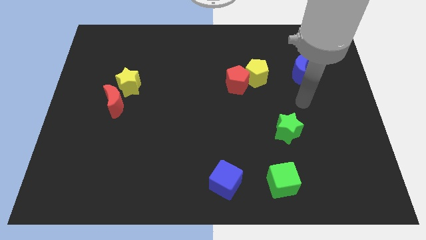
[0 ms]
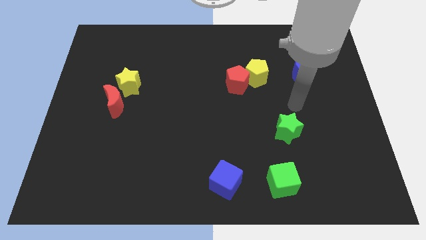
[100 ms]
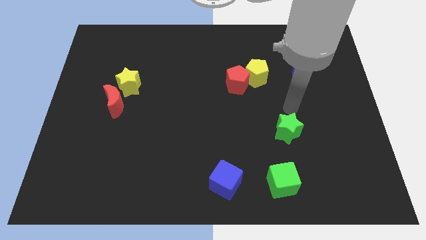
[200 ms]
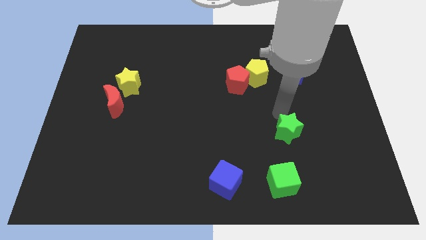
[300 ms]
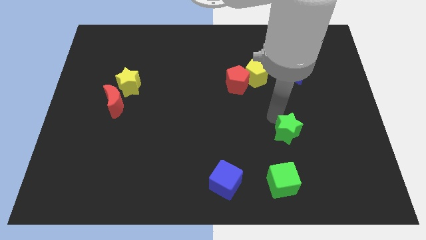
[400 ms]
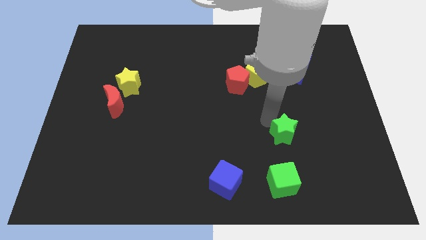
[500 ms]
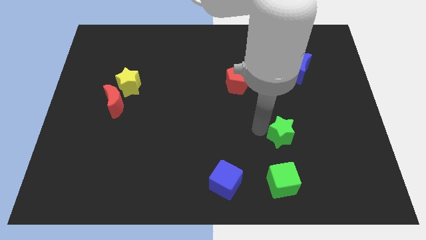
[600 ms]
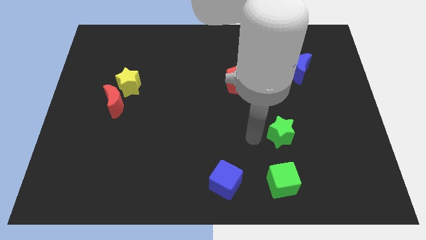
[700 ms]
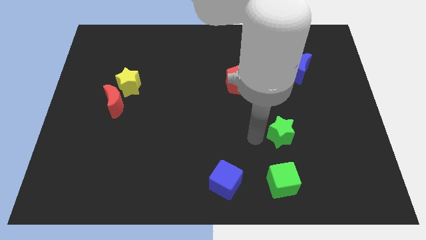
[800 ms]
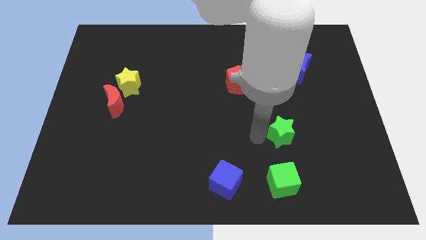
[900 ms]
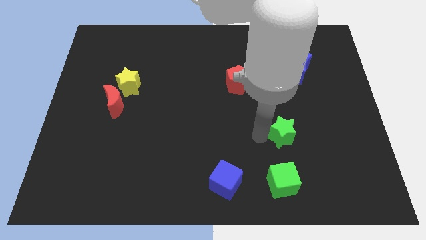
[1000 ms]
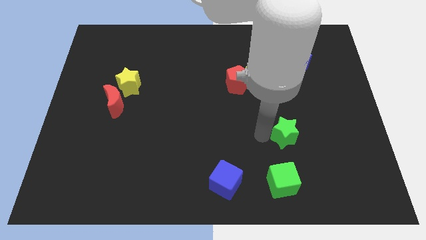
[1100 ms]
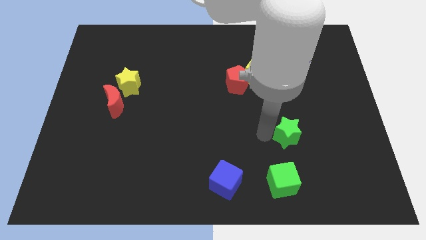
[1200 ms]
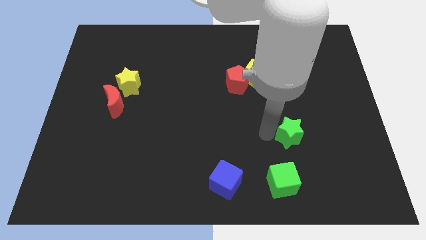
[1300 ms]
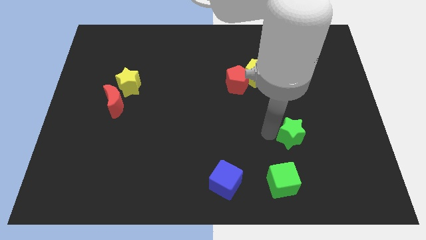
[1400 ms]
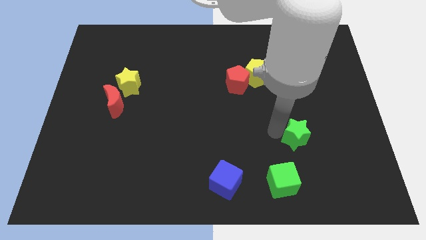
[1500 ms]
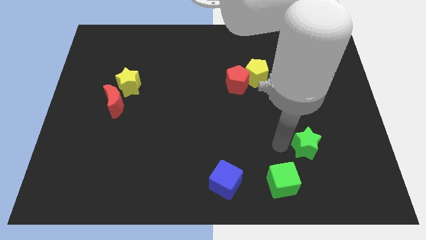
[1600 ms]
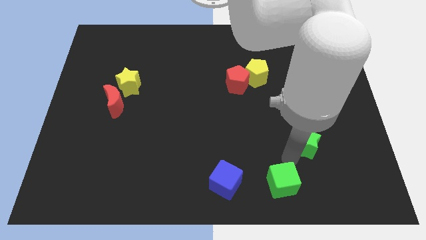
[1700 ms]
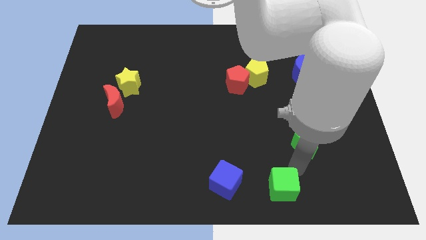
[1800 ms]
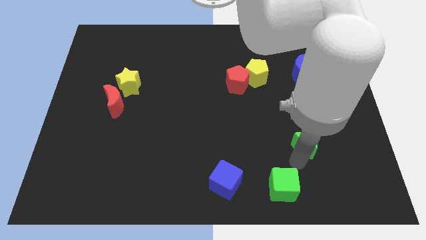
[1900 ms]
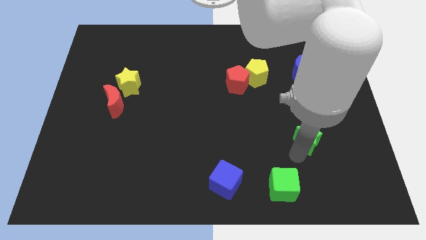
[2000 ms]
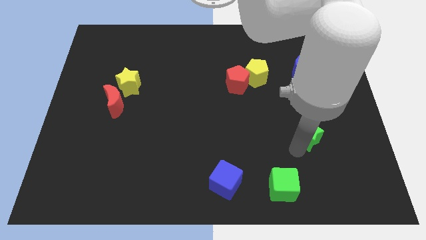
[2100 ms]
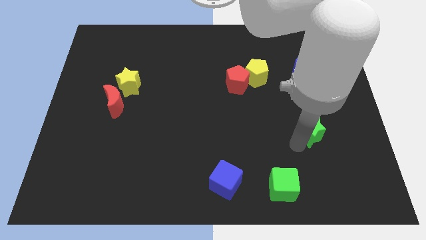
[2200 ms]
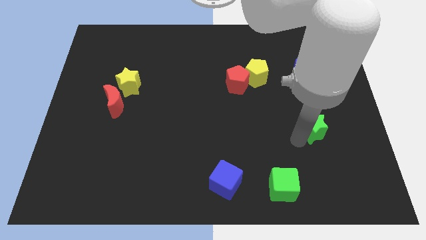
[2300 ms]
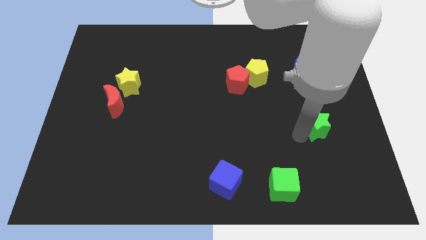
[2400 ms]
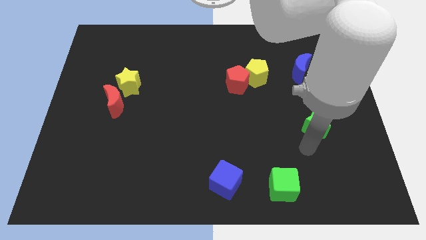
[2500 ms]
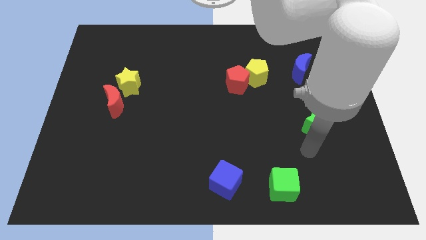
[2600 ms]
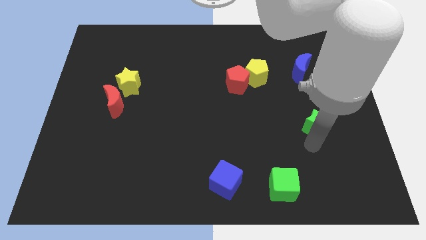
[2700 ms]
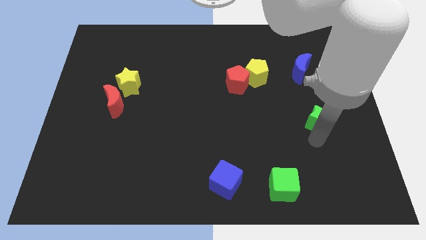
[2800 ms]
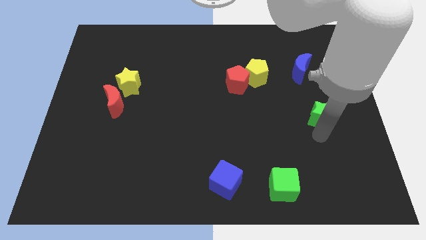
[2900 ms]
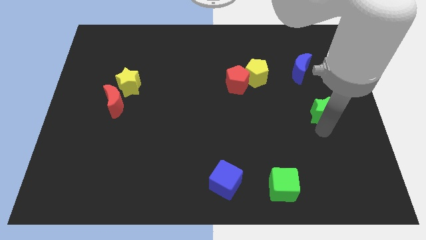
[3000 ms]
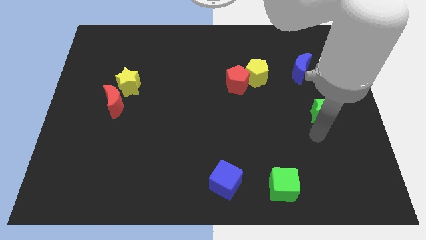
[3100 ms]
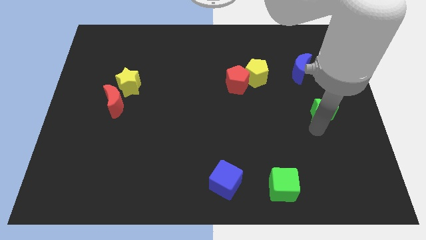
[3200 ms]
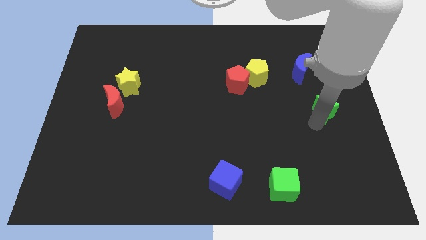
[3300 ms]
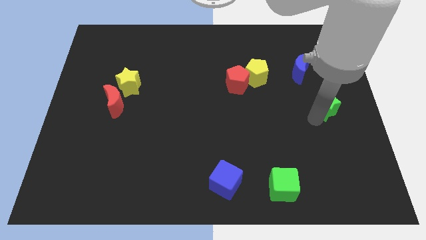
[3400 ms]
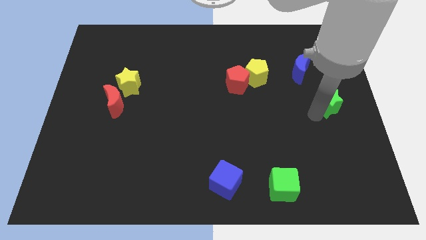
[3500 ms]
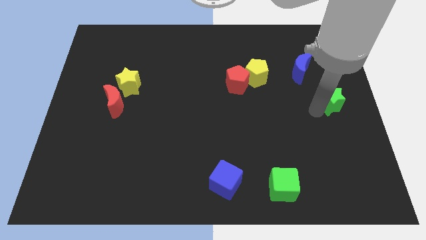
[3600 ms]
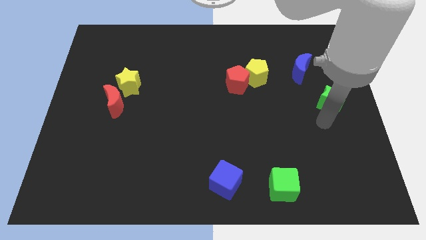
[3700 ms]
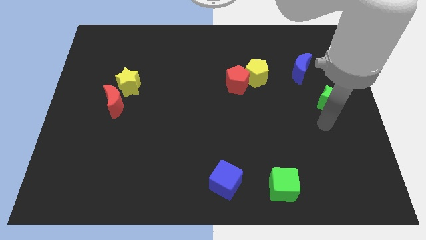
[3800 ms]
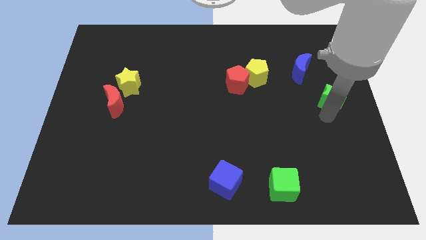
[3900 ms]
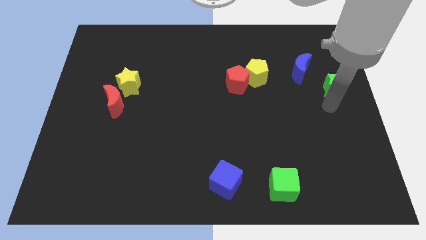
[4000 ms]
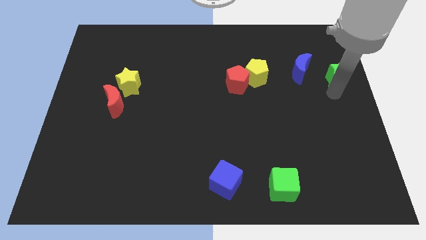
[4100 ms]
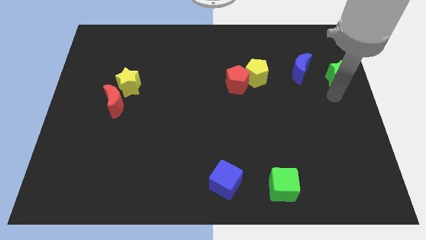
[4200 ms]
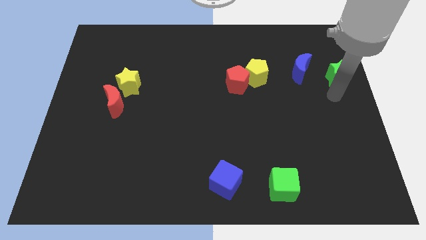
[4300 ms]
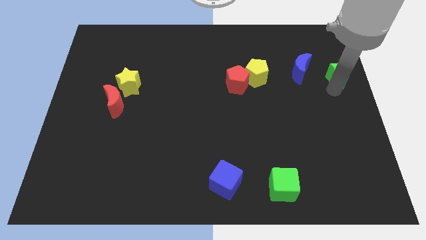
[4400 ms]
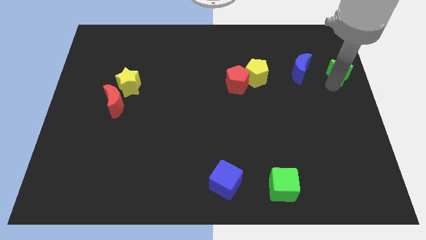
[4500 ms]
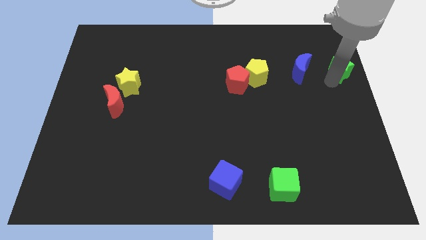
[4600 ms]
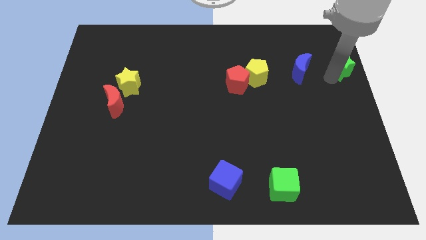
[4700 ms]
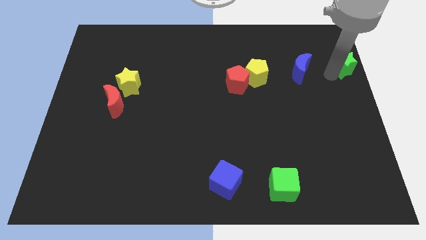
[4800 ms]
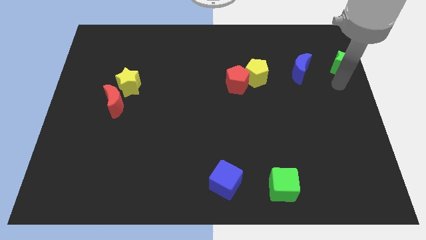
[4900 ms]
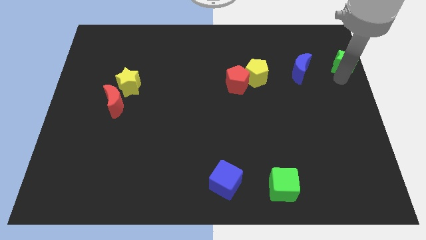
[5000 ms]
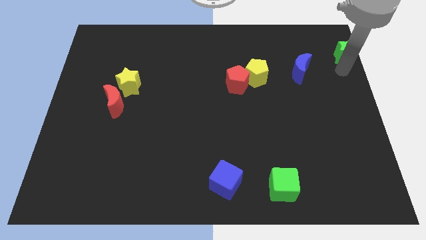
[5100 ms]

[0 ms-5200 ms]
put the green star to the top right corner

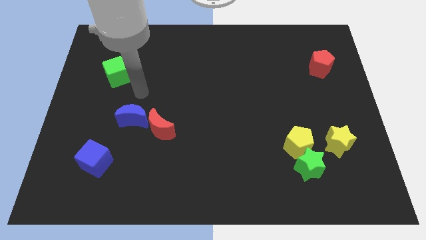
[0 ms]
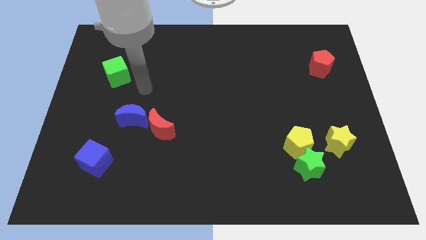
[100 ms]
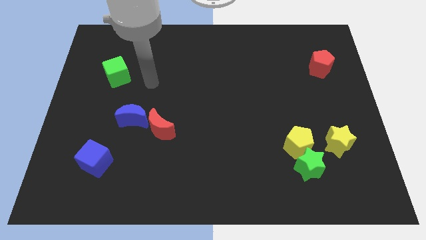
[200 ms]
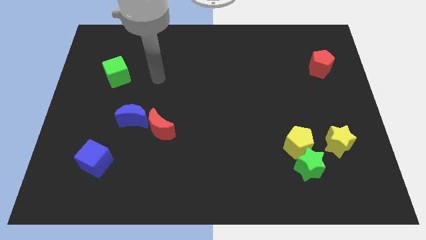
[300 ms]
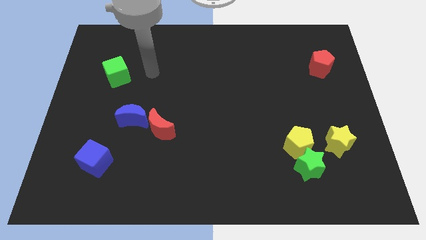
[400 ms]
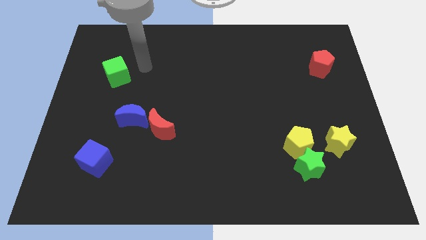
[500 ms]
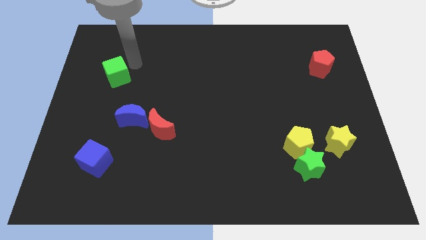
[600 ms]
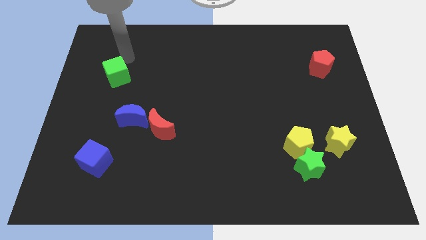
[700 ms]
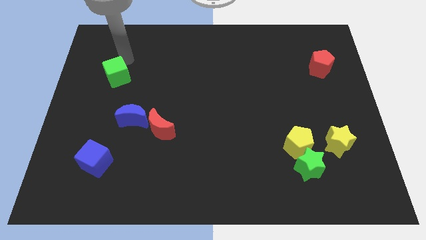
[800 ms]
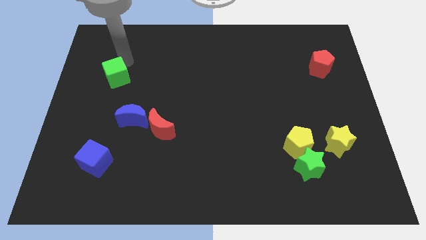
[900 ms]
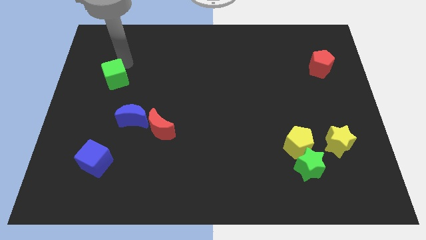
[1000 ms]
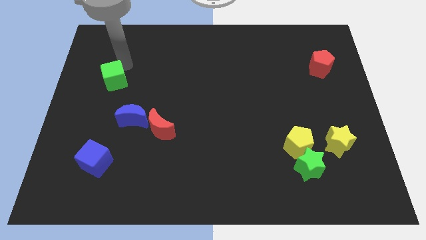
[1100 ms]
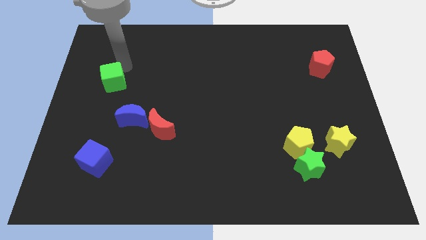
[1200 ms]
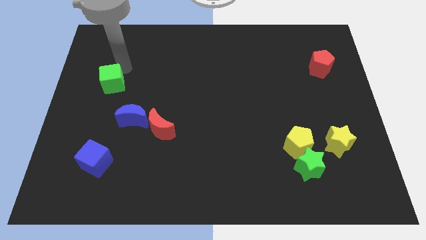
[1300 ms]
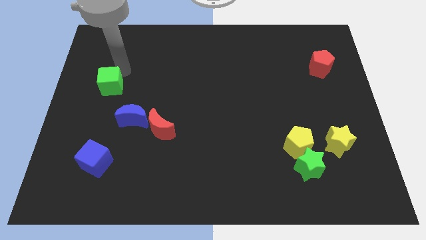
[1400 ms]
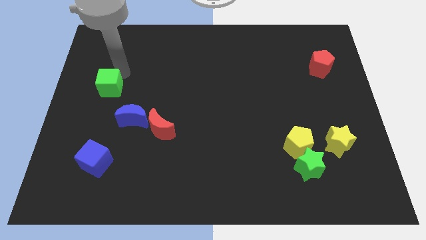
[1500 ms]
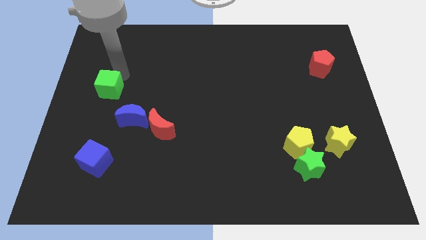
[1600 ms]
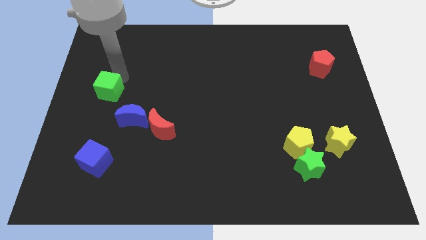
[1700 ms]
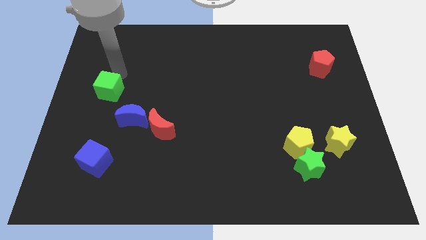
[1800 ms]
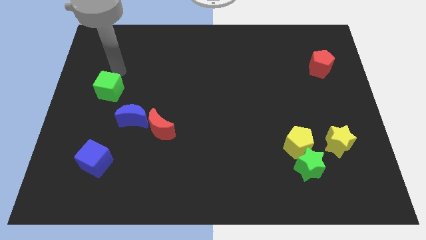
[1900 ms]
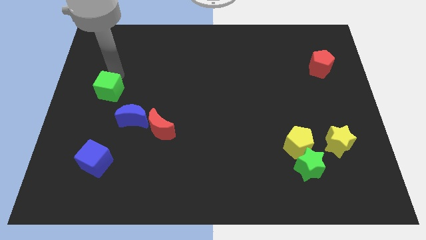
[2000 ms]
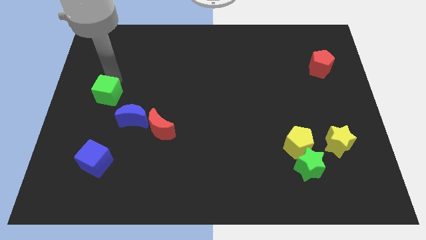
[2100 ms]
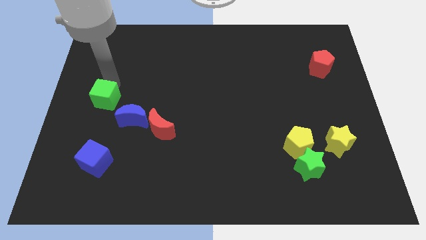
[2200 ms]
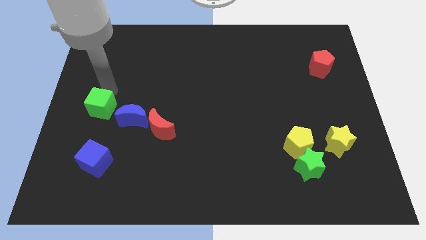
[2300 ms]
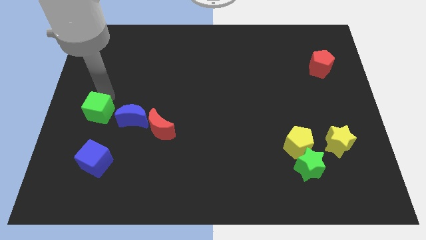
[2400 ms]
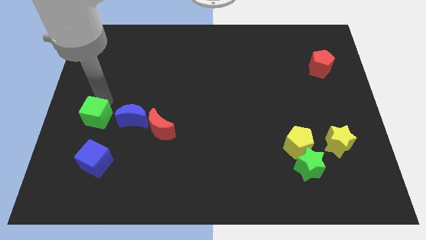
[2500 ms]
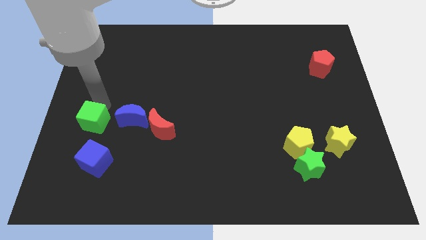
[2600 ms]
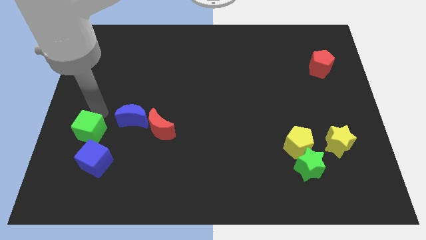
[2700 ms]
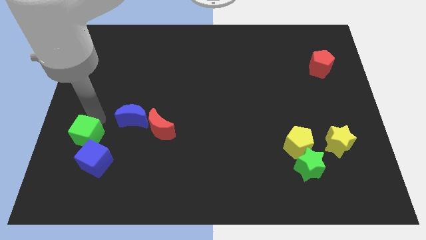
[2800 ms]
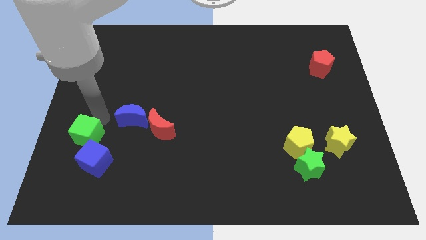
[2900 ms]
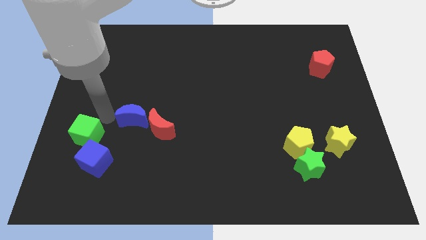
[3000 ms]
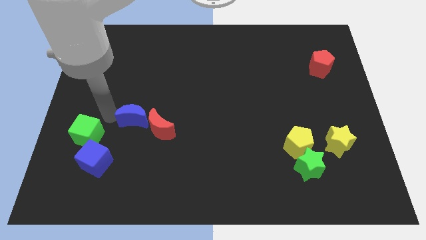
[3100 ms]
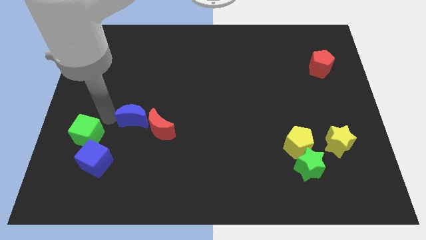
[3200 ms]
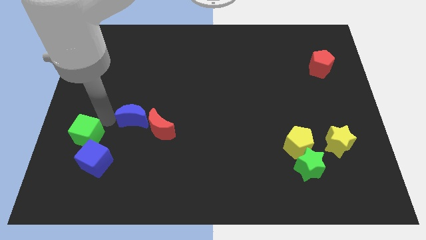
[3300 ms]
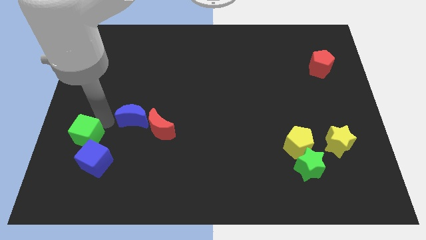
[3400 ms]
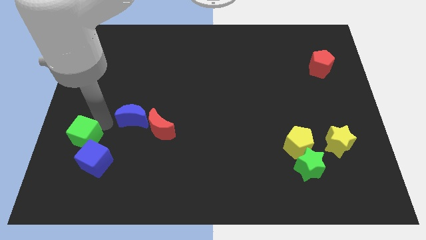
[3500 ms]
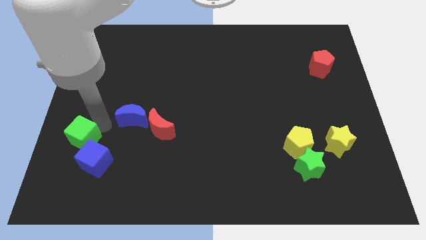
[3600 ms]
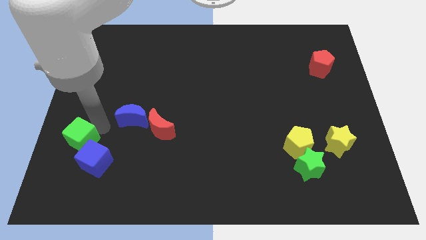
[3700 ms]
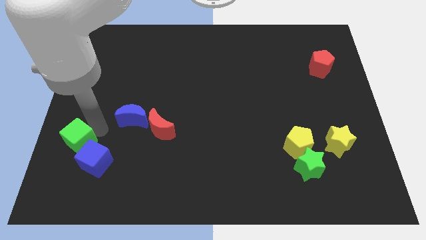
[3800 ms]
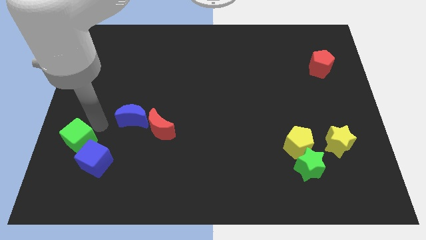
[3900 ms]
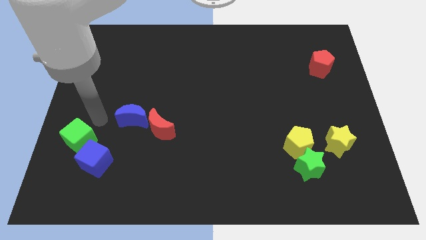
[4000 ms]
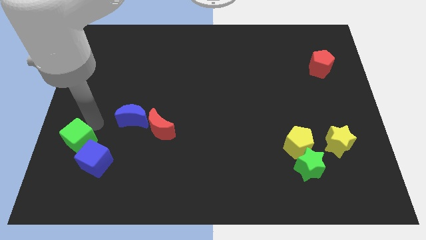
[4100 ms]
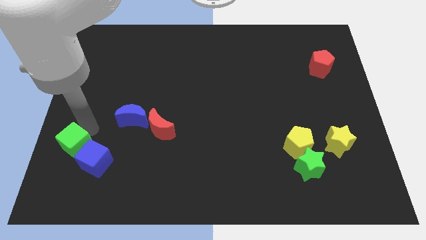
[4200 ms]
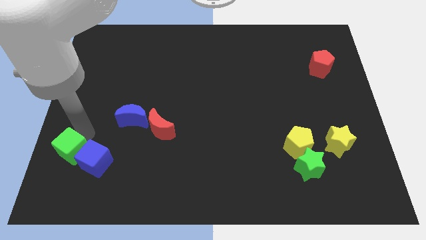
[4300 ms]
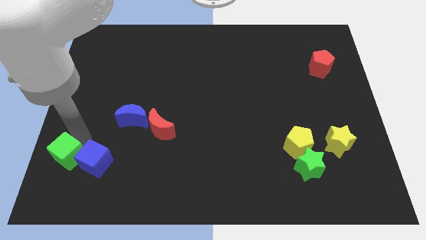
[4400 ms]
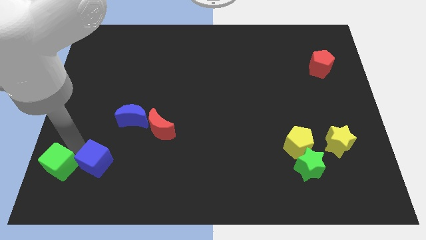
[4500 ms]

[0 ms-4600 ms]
move the green cube to the bottom left corner
